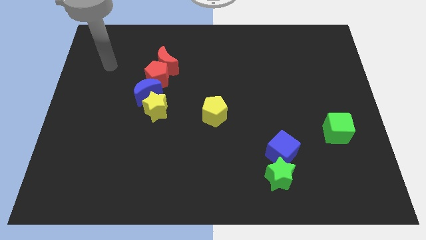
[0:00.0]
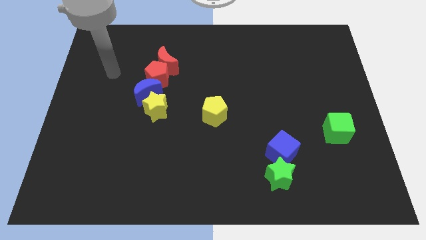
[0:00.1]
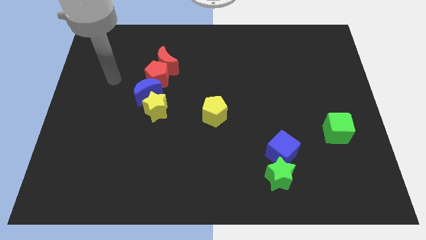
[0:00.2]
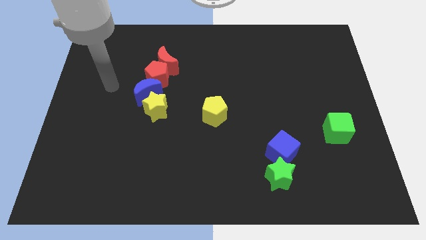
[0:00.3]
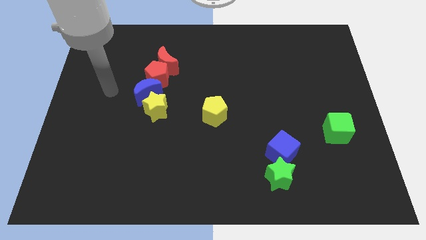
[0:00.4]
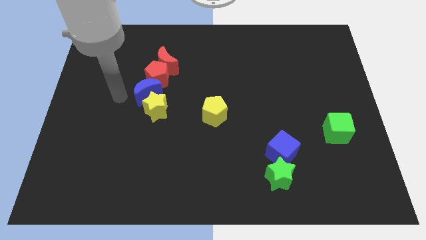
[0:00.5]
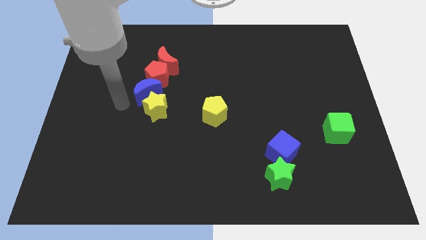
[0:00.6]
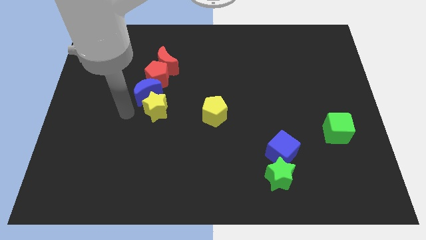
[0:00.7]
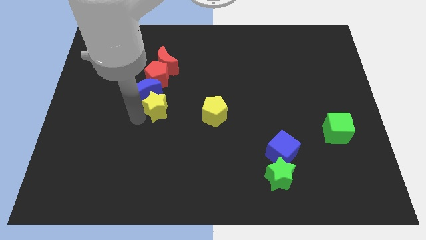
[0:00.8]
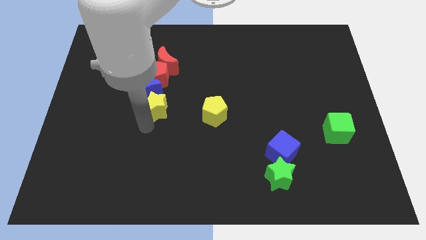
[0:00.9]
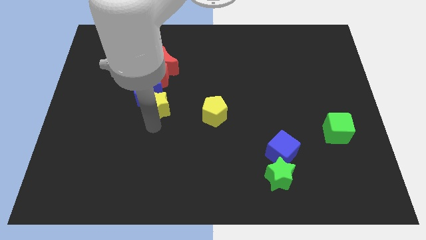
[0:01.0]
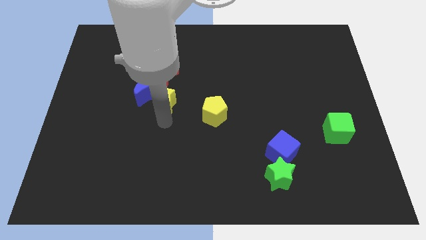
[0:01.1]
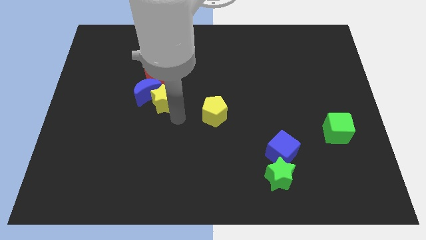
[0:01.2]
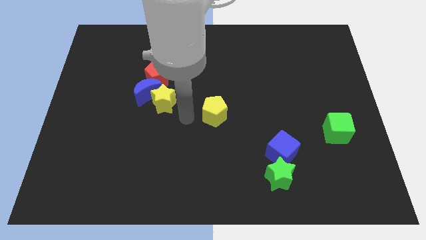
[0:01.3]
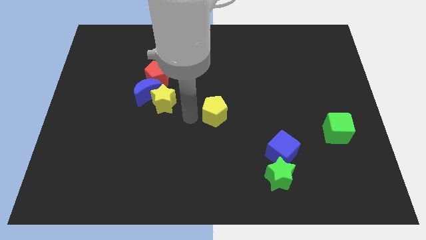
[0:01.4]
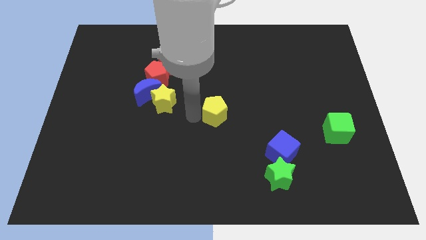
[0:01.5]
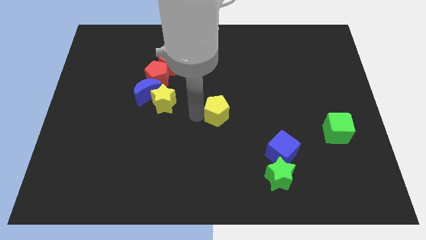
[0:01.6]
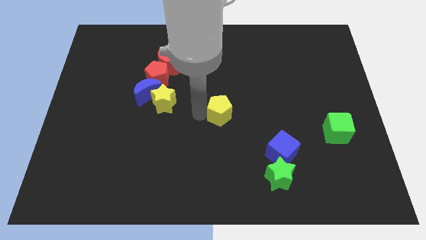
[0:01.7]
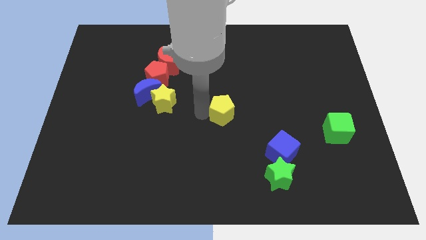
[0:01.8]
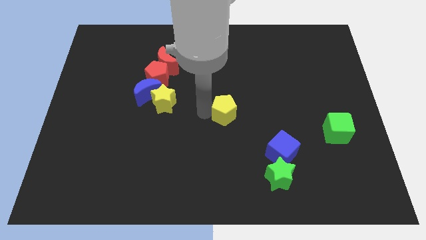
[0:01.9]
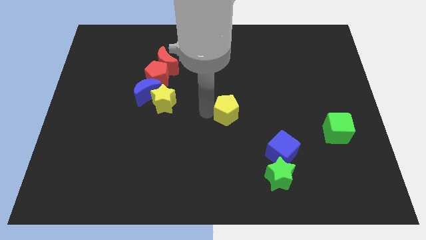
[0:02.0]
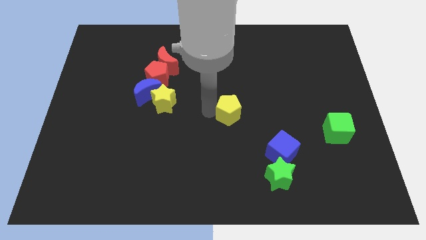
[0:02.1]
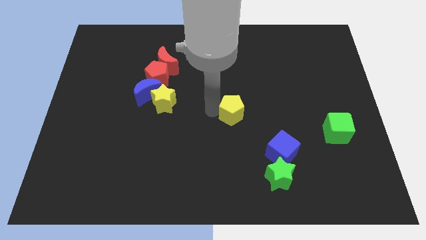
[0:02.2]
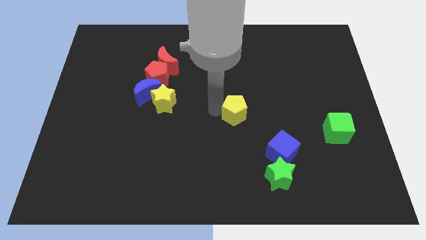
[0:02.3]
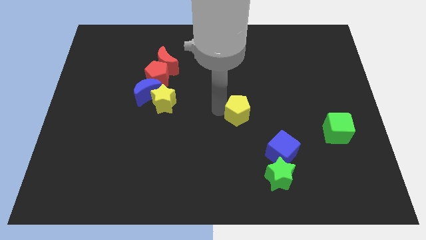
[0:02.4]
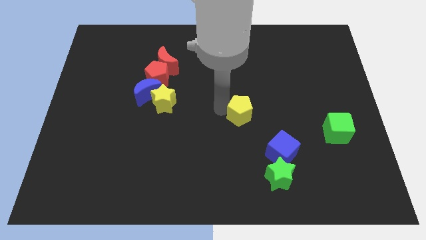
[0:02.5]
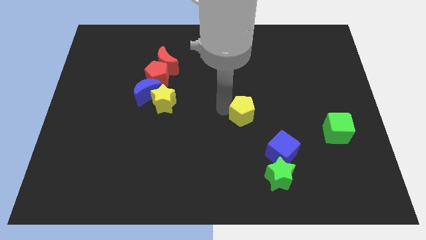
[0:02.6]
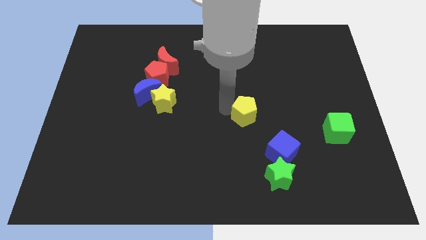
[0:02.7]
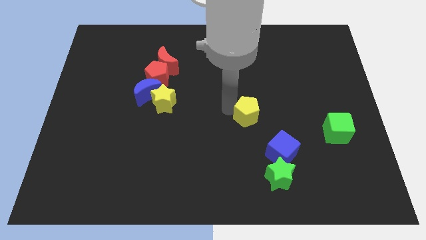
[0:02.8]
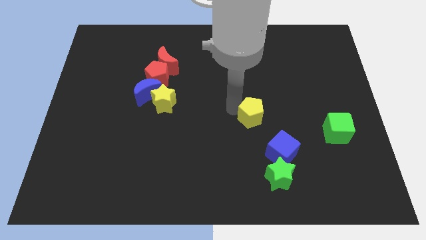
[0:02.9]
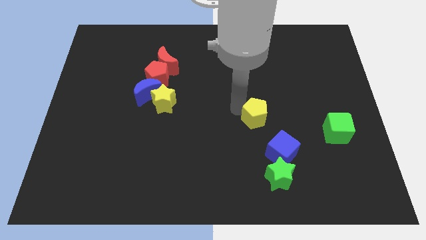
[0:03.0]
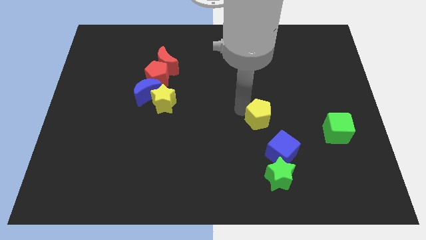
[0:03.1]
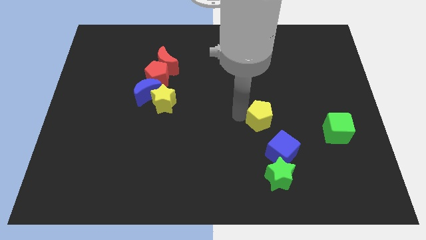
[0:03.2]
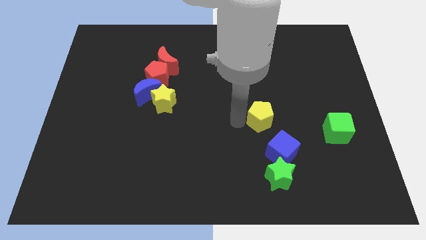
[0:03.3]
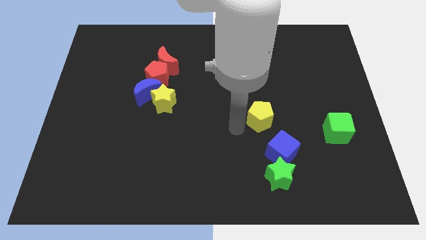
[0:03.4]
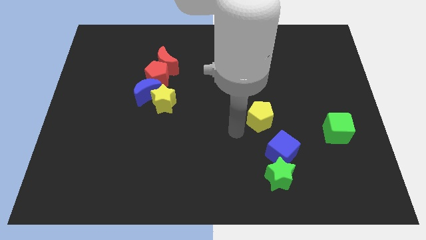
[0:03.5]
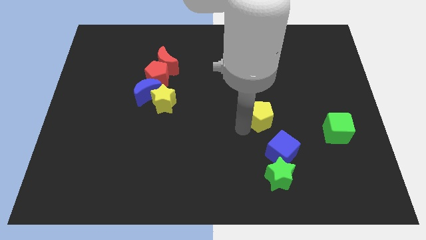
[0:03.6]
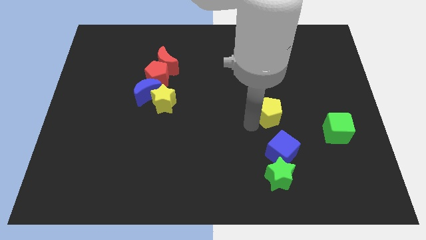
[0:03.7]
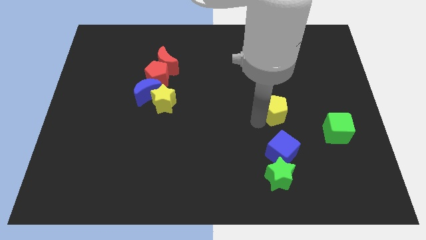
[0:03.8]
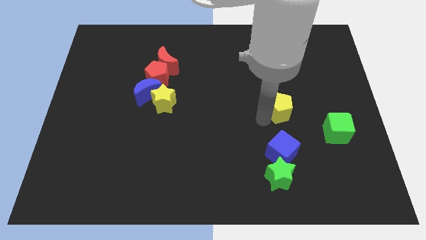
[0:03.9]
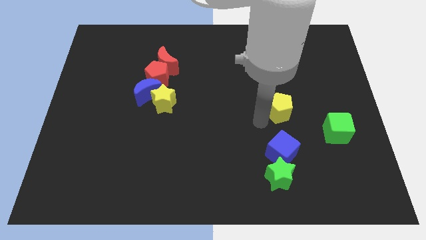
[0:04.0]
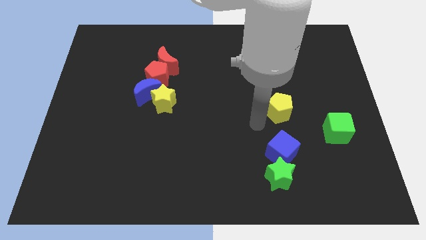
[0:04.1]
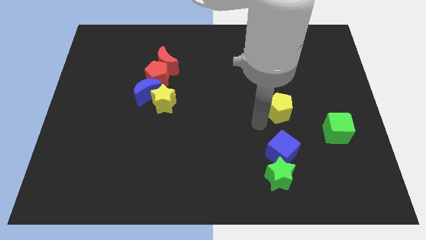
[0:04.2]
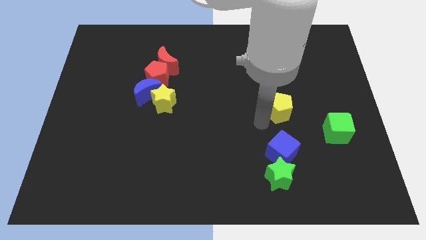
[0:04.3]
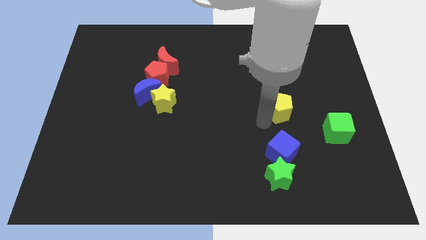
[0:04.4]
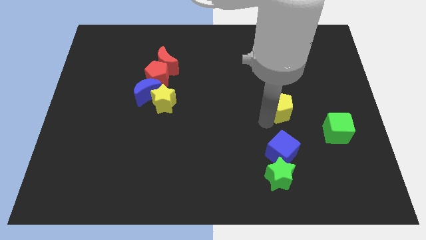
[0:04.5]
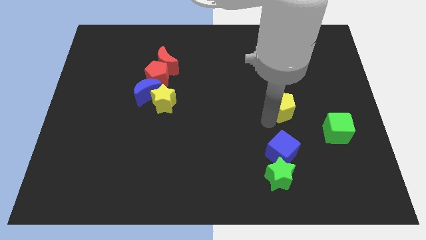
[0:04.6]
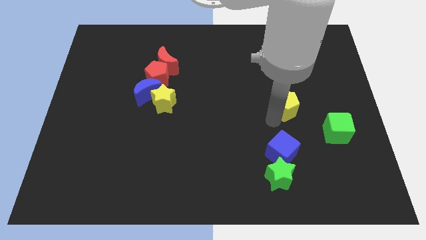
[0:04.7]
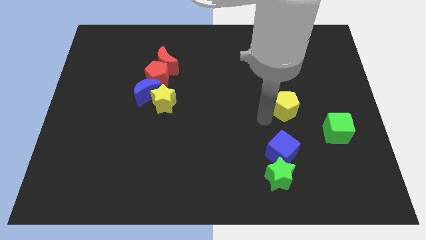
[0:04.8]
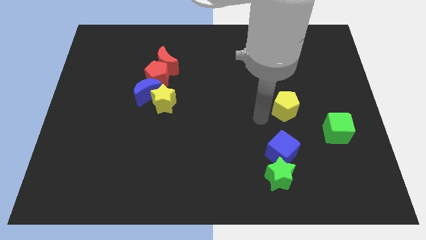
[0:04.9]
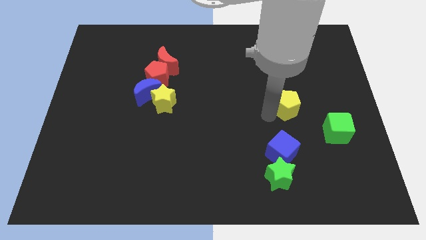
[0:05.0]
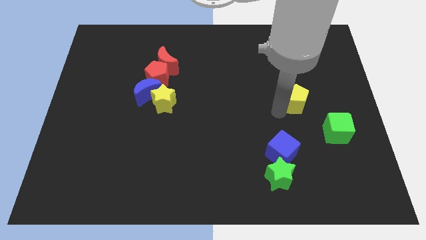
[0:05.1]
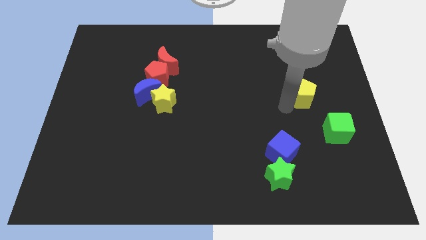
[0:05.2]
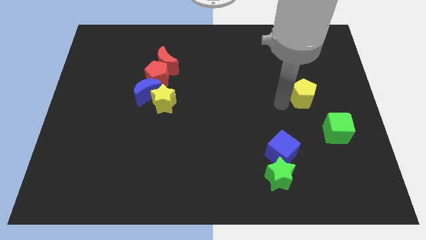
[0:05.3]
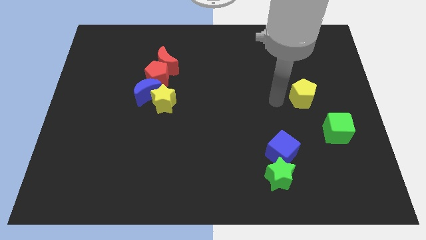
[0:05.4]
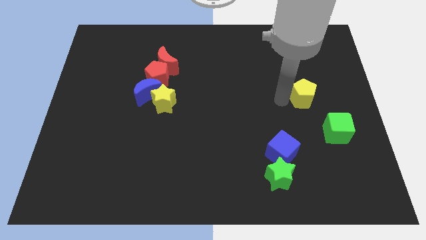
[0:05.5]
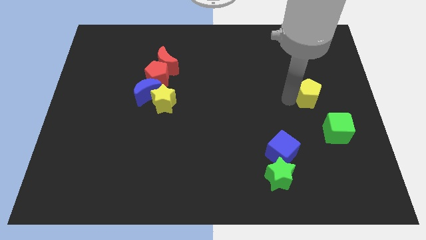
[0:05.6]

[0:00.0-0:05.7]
slide the yellow pentagon to the top of the green cube
